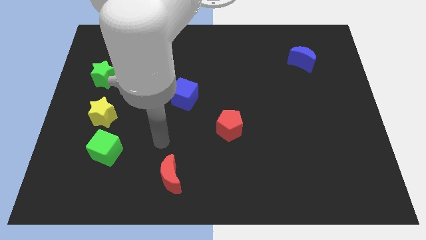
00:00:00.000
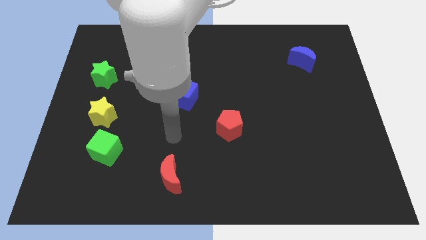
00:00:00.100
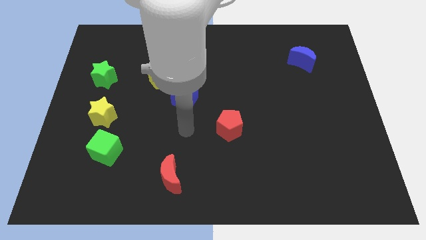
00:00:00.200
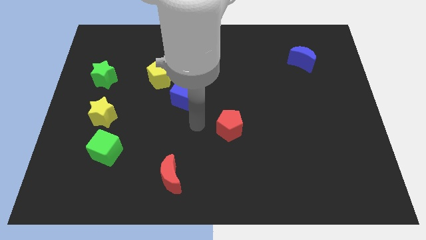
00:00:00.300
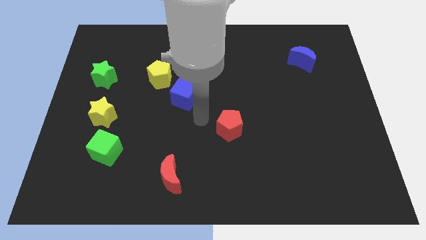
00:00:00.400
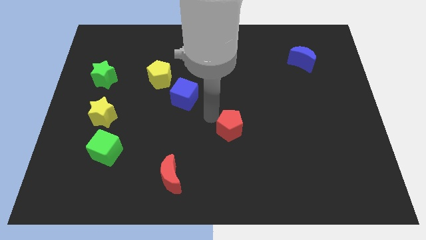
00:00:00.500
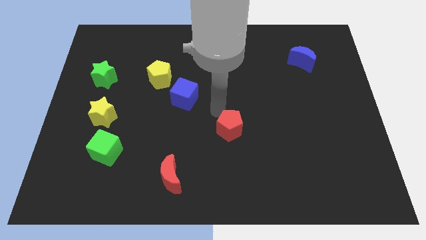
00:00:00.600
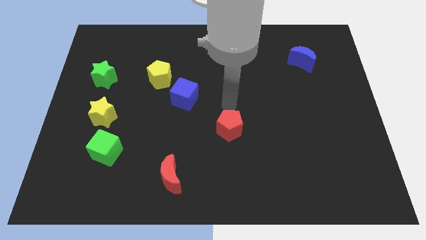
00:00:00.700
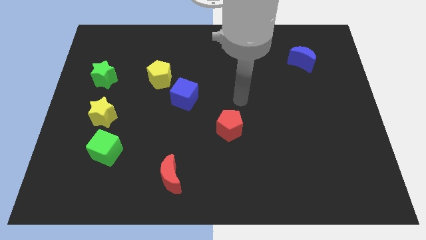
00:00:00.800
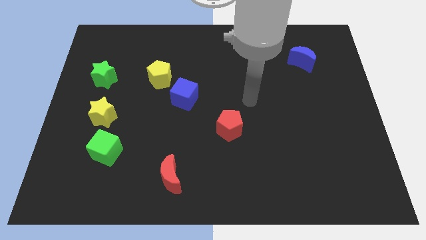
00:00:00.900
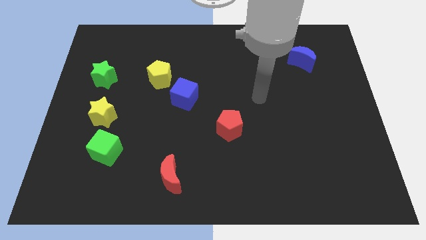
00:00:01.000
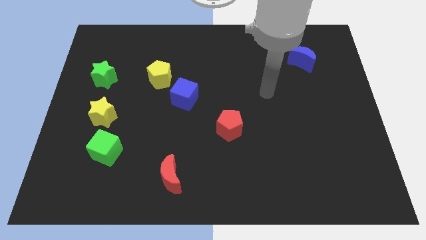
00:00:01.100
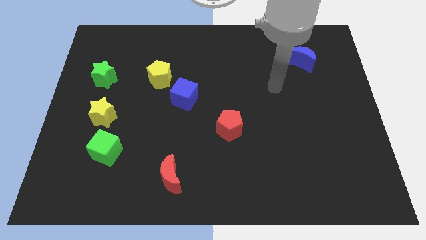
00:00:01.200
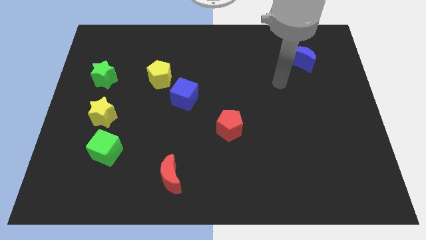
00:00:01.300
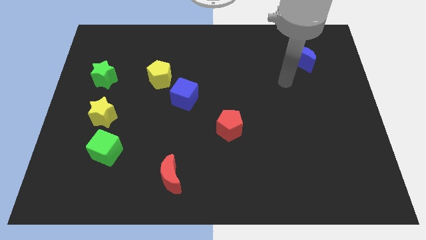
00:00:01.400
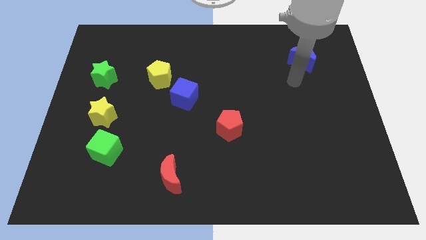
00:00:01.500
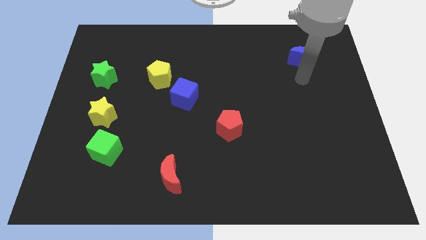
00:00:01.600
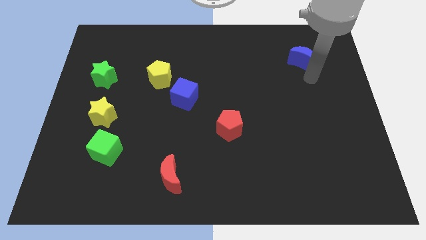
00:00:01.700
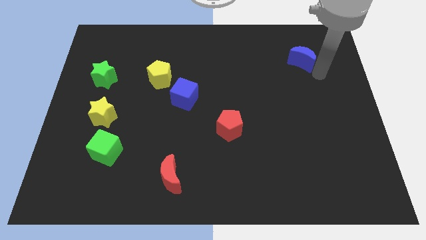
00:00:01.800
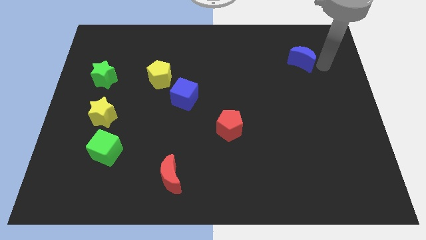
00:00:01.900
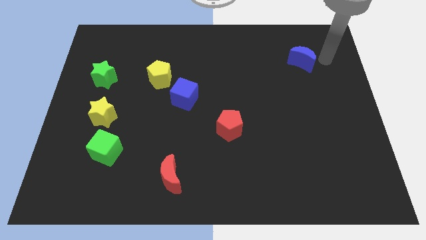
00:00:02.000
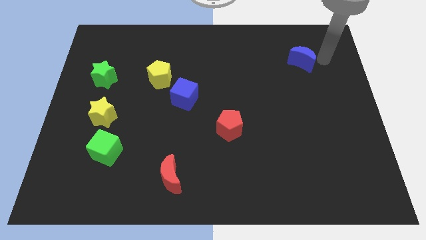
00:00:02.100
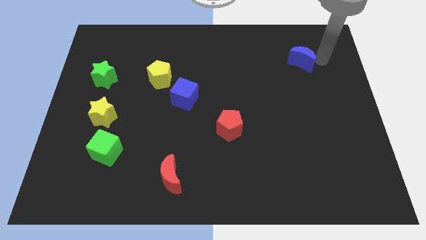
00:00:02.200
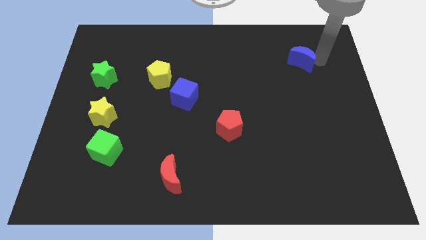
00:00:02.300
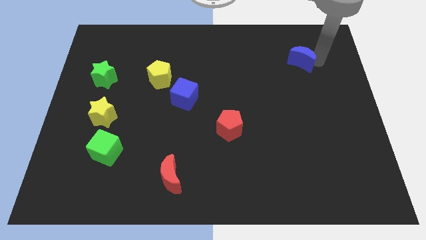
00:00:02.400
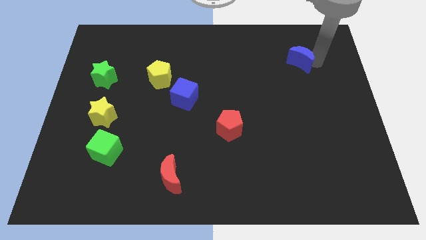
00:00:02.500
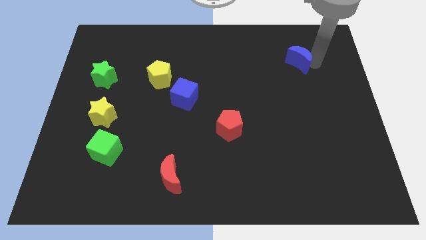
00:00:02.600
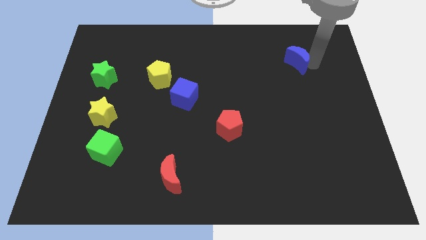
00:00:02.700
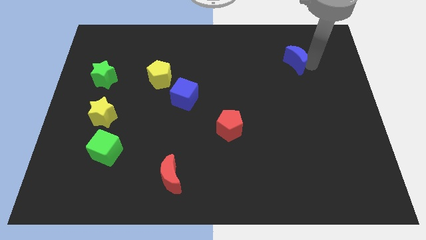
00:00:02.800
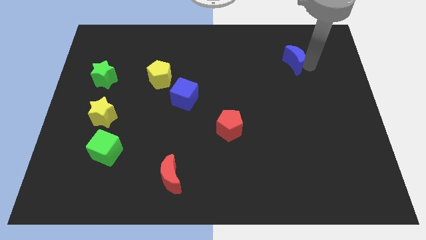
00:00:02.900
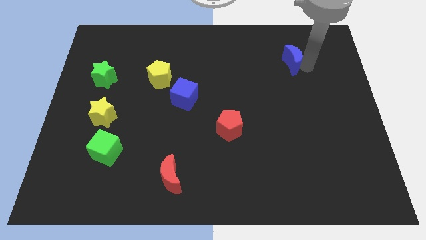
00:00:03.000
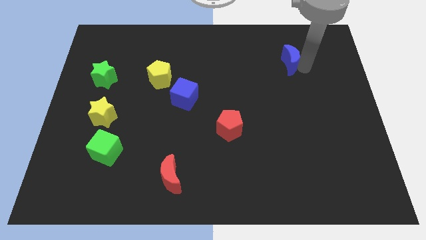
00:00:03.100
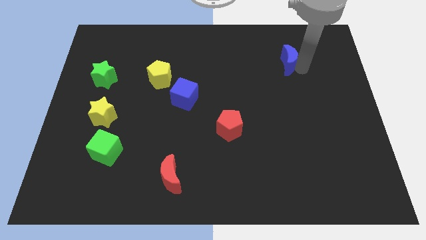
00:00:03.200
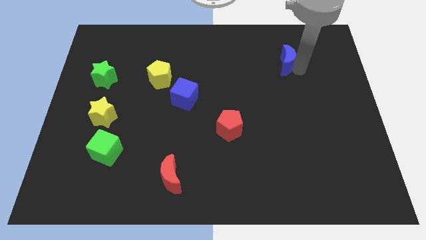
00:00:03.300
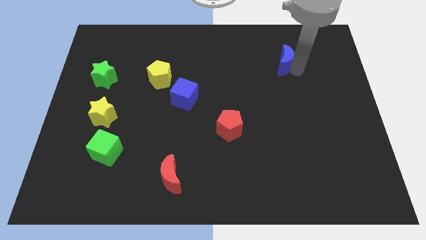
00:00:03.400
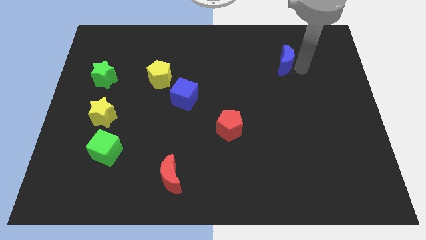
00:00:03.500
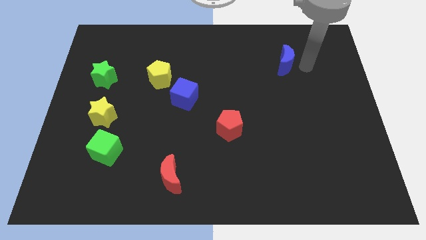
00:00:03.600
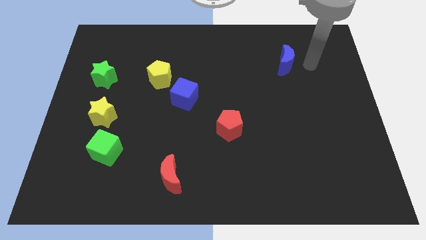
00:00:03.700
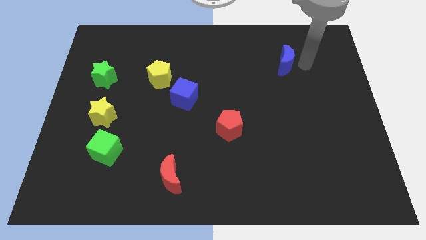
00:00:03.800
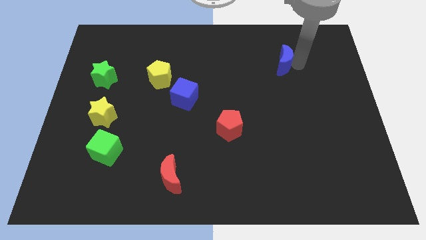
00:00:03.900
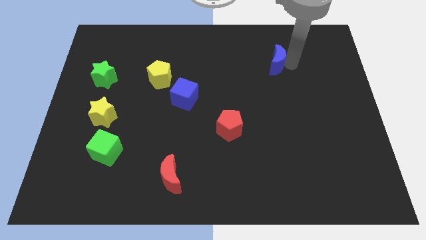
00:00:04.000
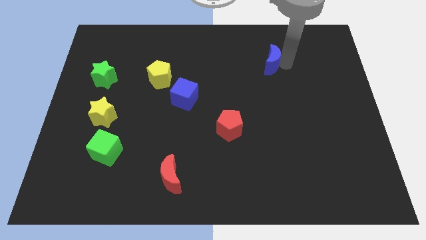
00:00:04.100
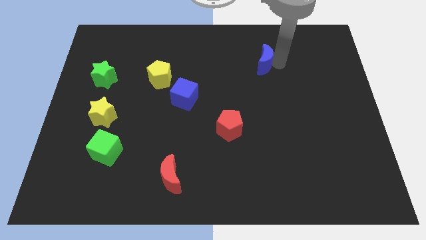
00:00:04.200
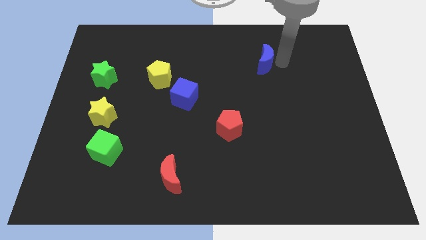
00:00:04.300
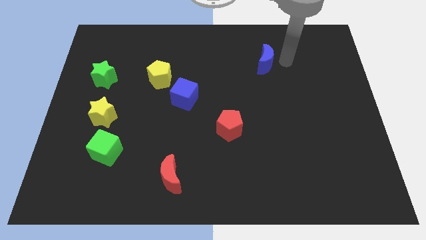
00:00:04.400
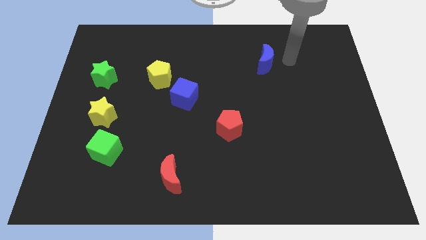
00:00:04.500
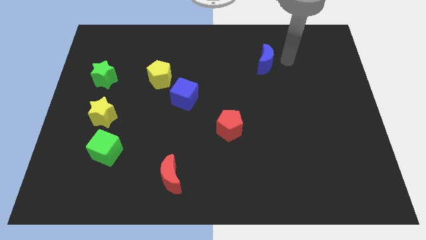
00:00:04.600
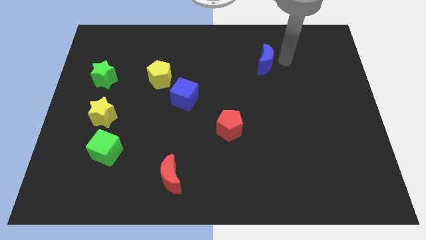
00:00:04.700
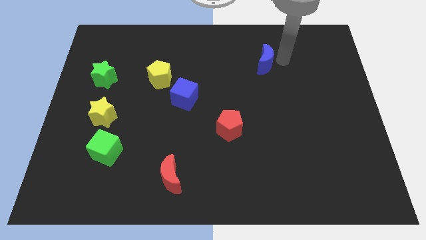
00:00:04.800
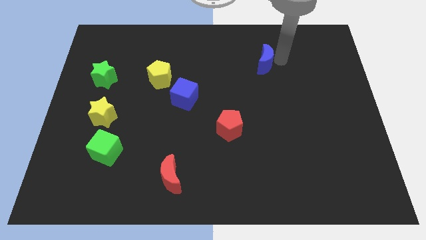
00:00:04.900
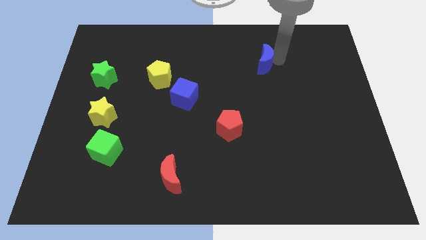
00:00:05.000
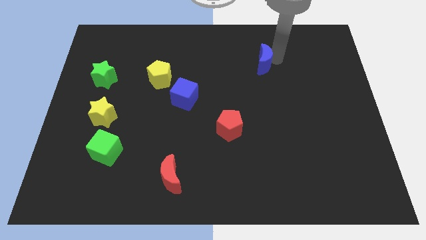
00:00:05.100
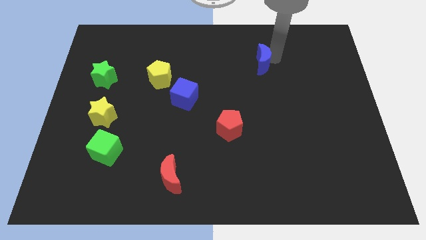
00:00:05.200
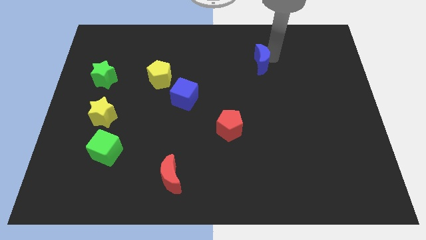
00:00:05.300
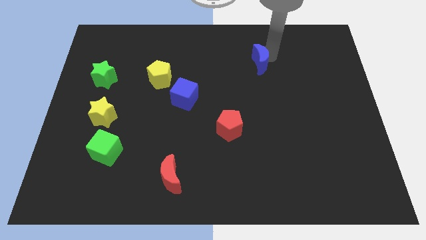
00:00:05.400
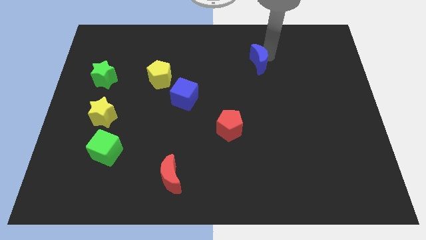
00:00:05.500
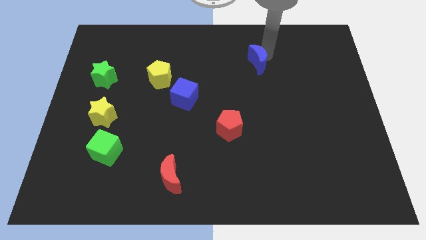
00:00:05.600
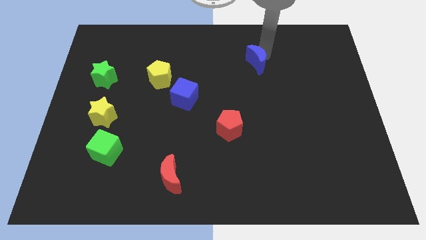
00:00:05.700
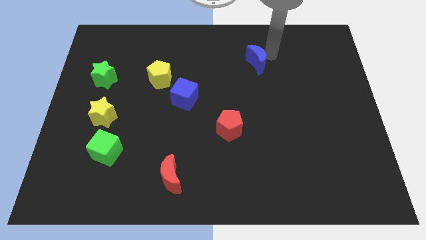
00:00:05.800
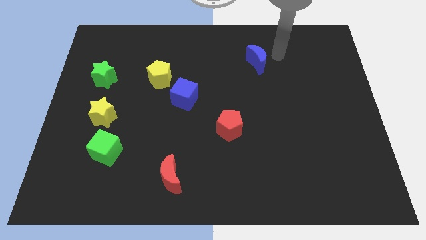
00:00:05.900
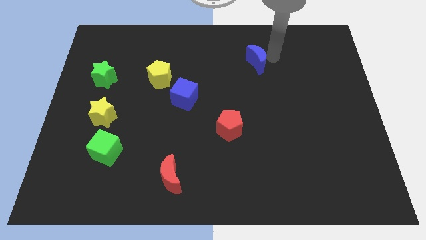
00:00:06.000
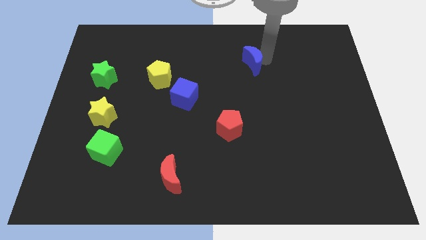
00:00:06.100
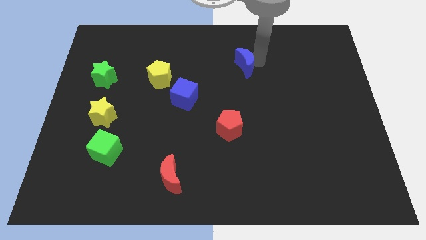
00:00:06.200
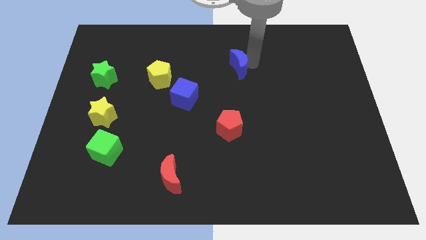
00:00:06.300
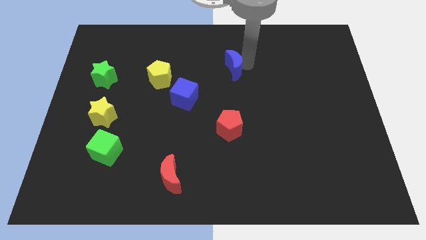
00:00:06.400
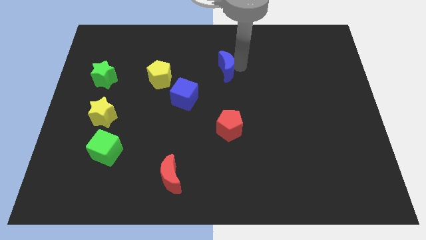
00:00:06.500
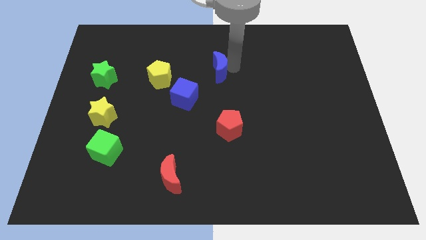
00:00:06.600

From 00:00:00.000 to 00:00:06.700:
put the blue moon to the right side of the yellow pentagon
